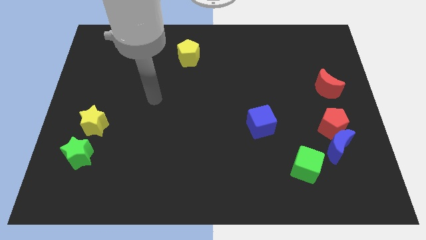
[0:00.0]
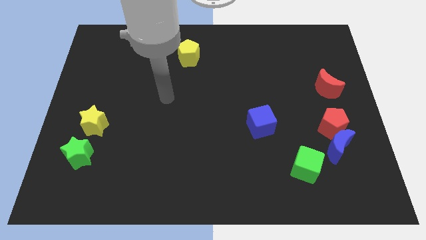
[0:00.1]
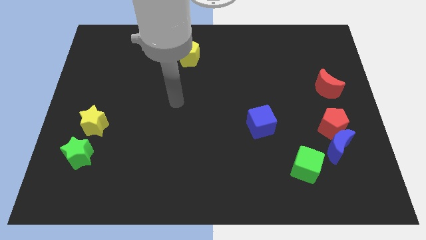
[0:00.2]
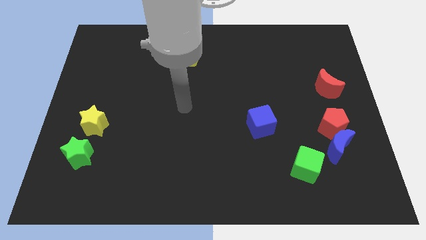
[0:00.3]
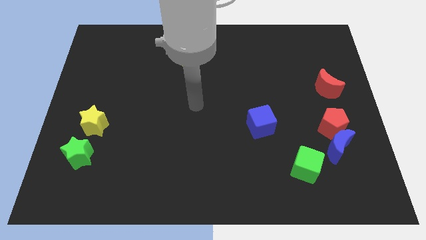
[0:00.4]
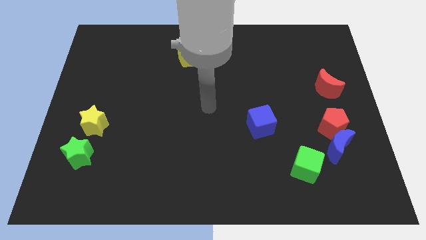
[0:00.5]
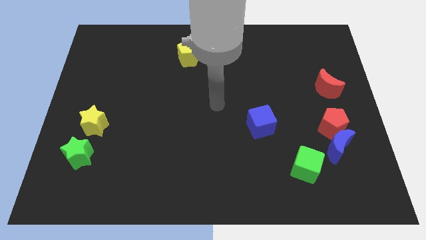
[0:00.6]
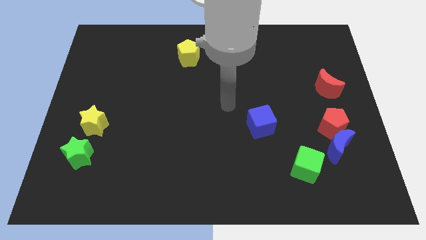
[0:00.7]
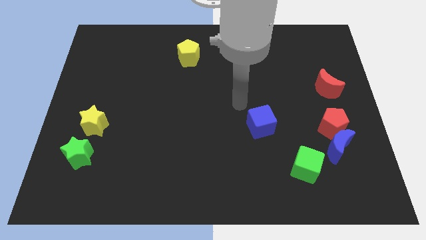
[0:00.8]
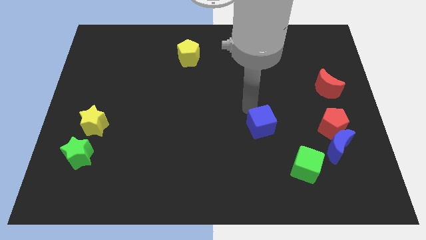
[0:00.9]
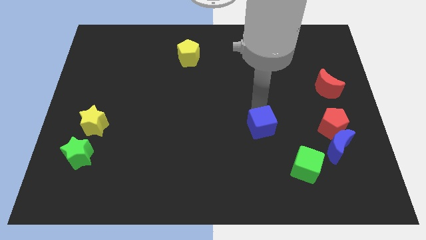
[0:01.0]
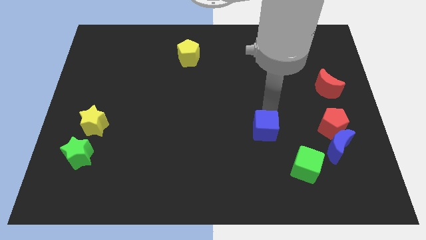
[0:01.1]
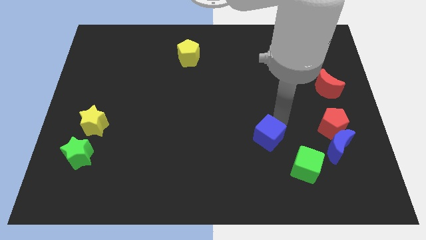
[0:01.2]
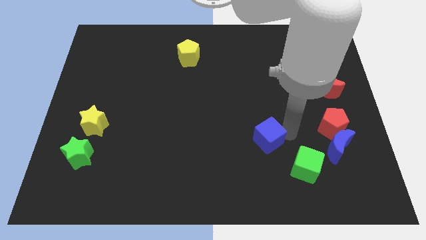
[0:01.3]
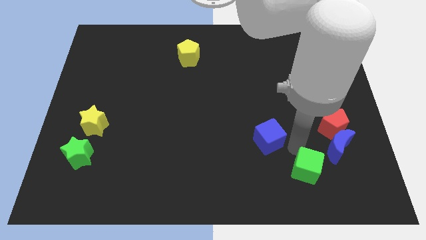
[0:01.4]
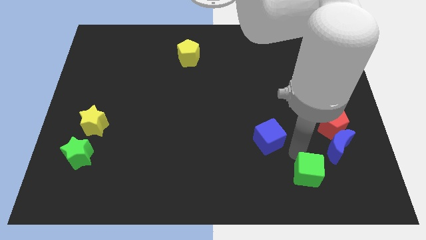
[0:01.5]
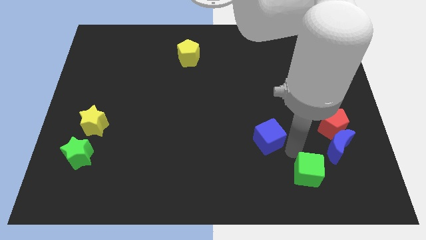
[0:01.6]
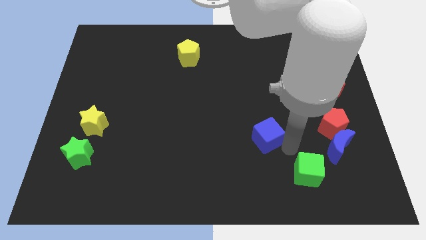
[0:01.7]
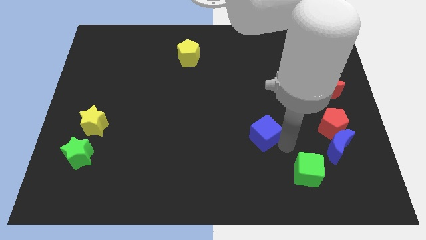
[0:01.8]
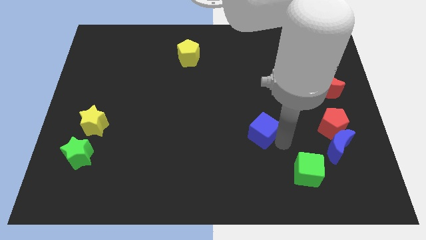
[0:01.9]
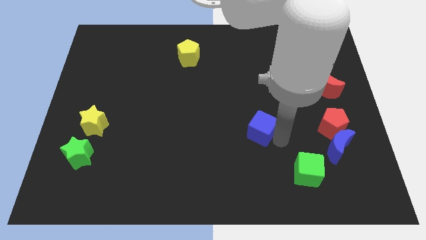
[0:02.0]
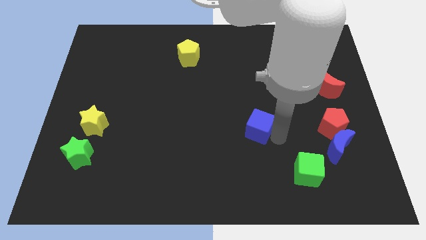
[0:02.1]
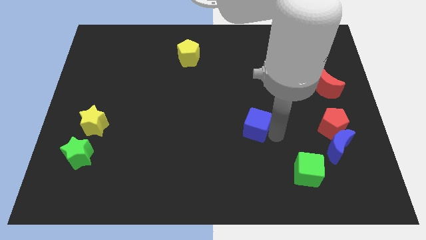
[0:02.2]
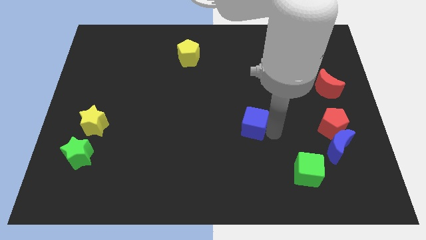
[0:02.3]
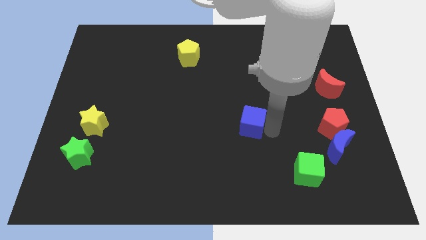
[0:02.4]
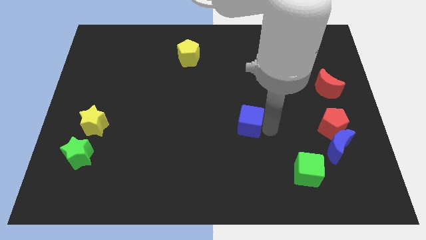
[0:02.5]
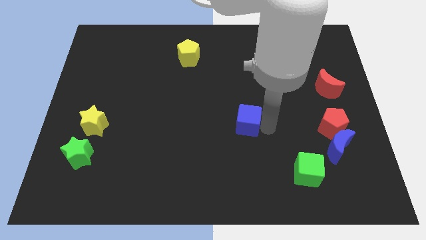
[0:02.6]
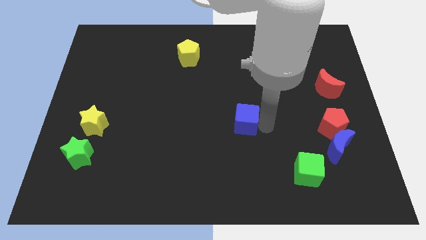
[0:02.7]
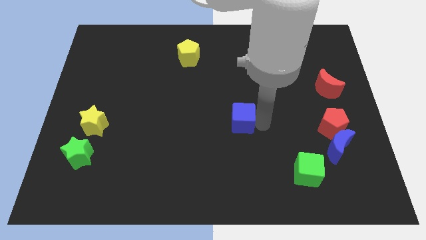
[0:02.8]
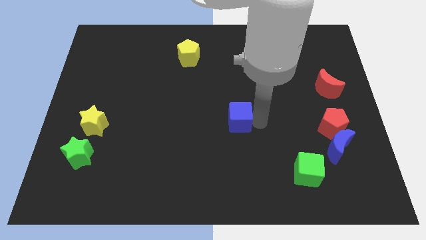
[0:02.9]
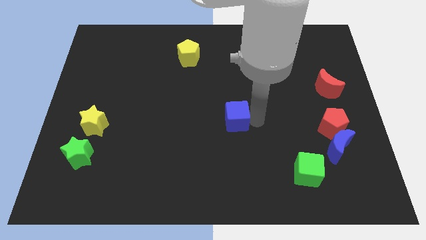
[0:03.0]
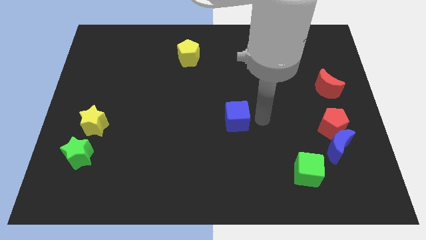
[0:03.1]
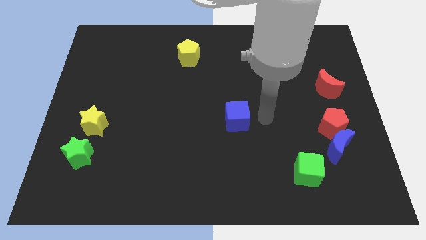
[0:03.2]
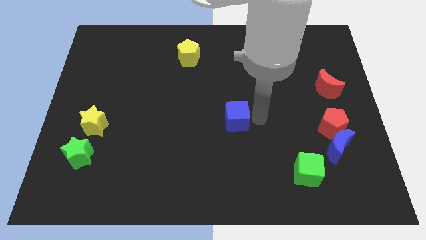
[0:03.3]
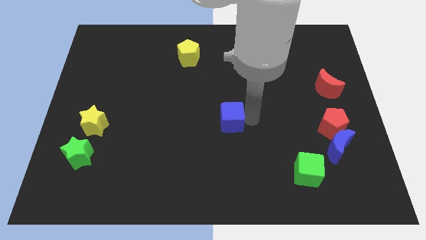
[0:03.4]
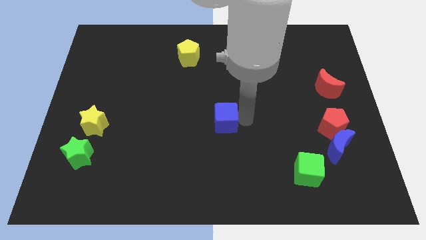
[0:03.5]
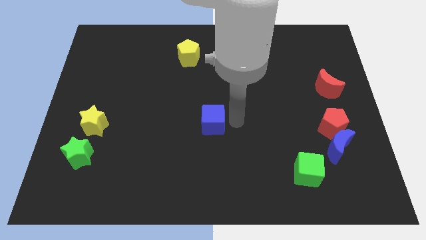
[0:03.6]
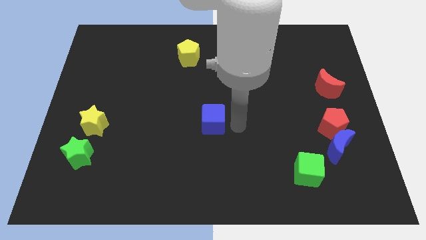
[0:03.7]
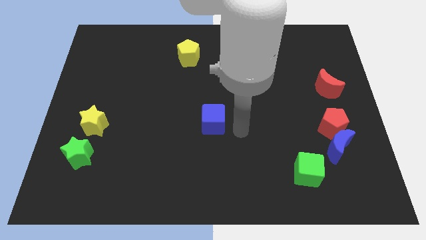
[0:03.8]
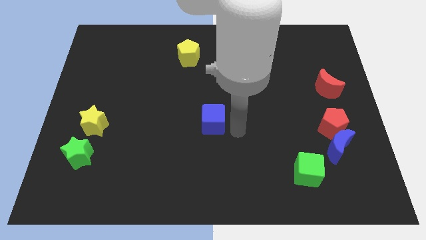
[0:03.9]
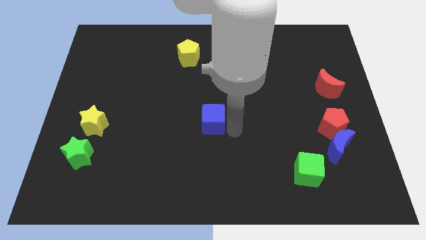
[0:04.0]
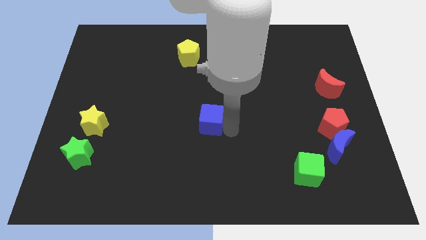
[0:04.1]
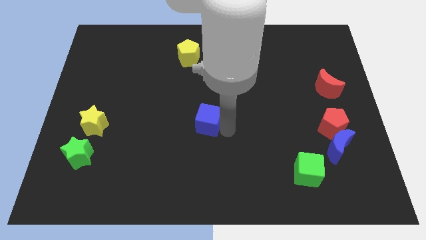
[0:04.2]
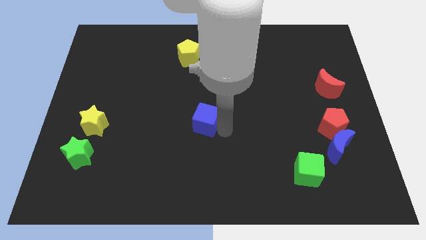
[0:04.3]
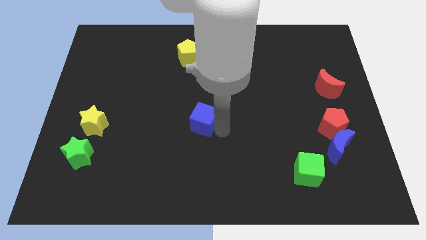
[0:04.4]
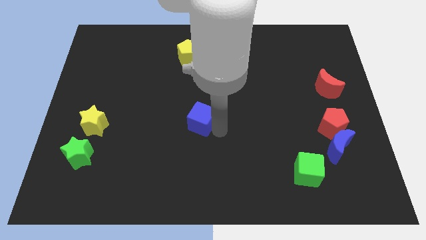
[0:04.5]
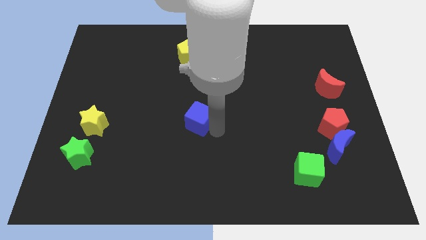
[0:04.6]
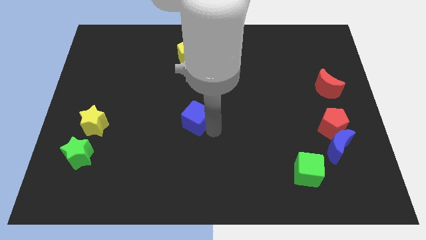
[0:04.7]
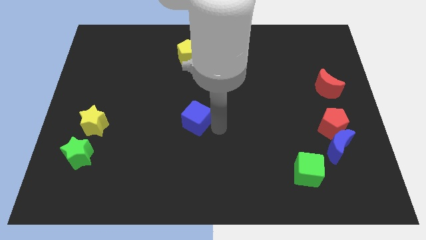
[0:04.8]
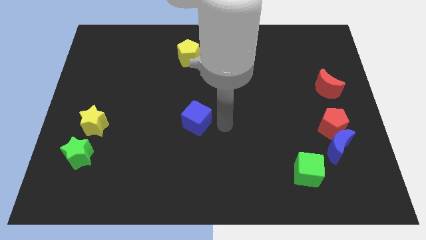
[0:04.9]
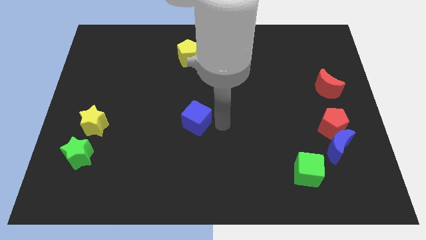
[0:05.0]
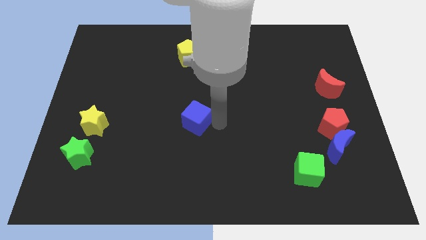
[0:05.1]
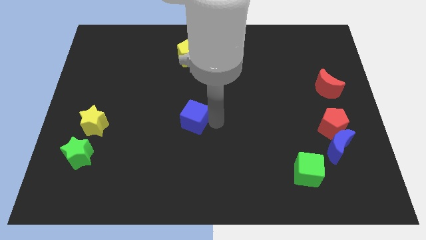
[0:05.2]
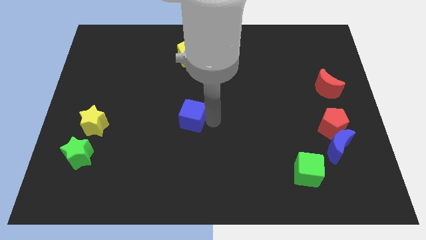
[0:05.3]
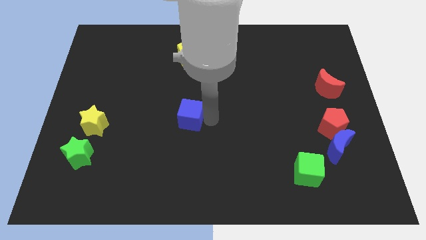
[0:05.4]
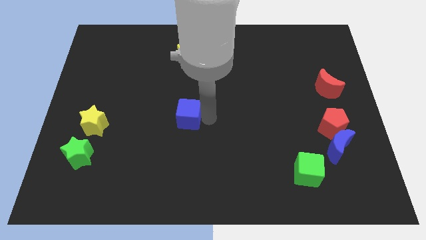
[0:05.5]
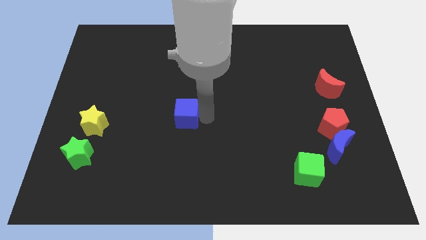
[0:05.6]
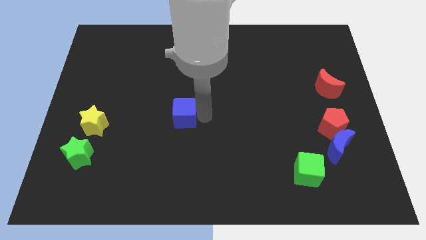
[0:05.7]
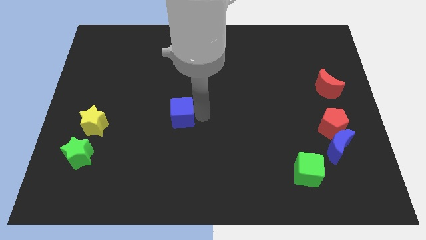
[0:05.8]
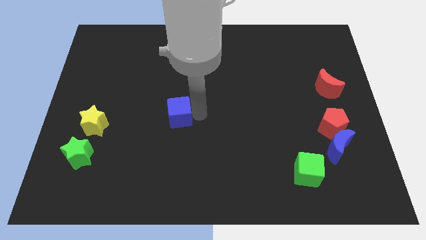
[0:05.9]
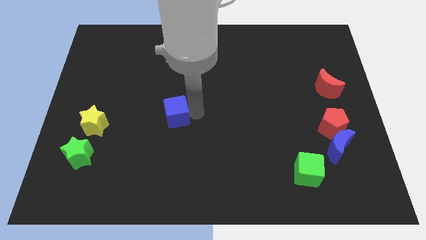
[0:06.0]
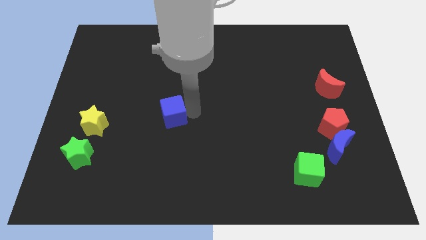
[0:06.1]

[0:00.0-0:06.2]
push the blue cube to the left

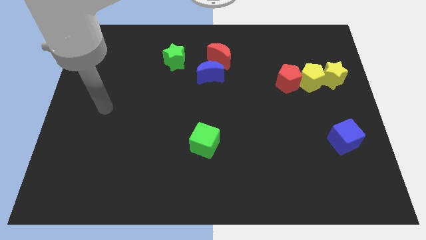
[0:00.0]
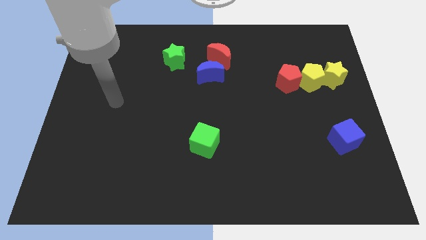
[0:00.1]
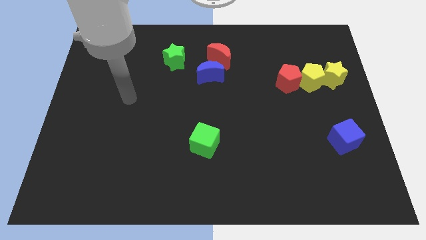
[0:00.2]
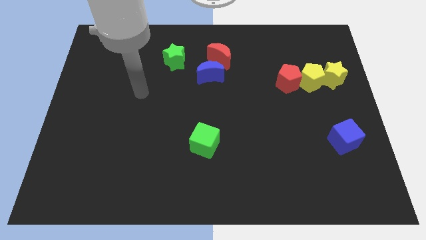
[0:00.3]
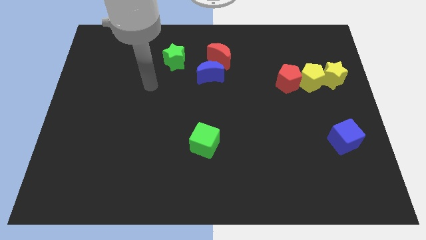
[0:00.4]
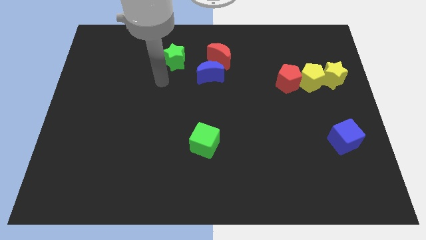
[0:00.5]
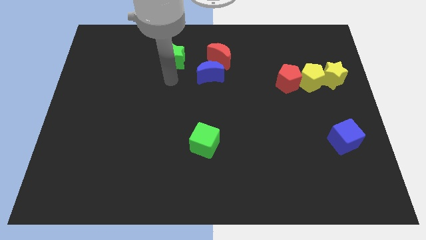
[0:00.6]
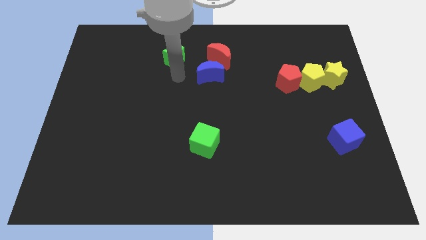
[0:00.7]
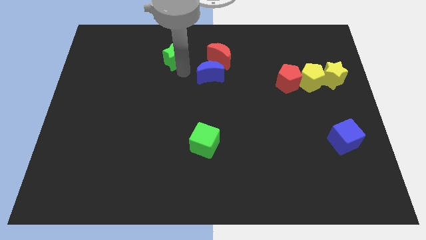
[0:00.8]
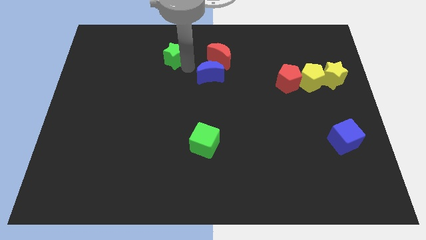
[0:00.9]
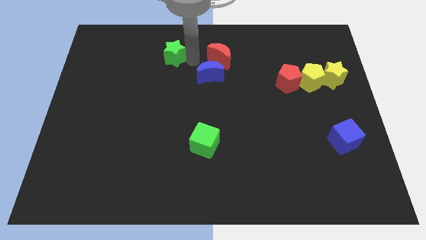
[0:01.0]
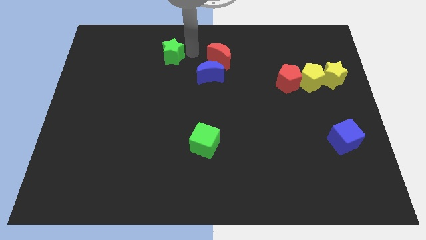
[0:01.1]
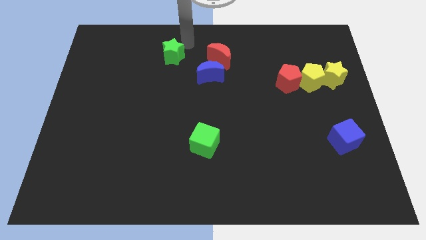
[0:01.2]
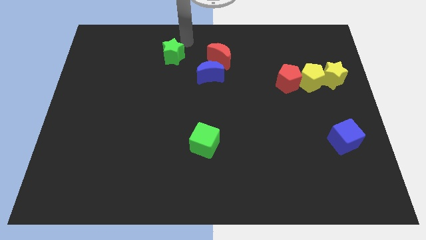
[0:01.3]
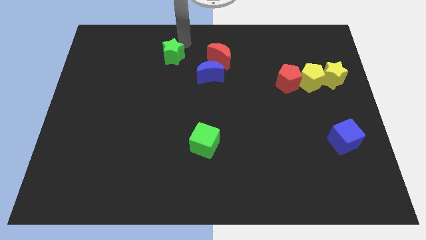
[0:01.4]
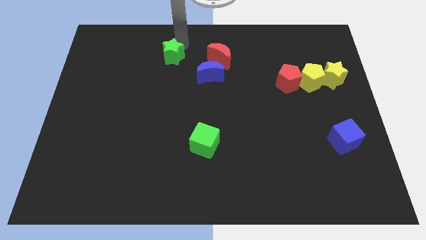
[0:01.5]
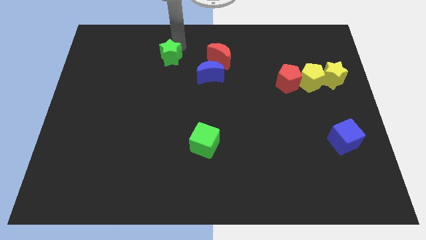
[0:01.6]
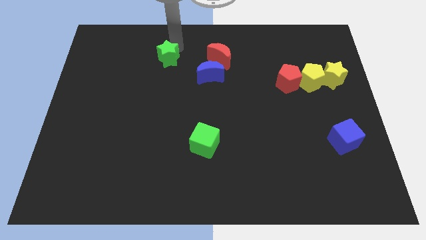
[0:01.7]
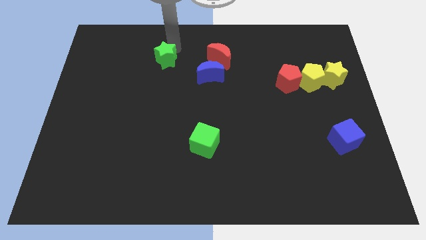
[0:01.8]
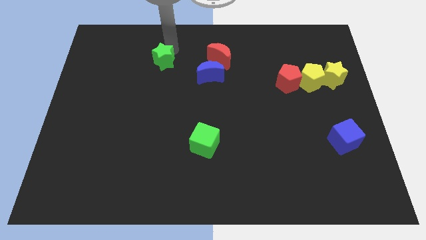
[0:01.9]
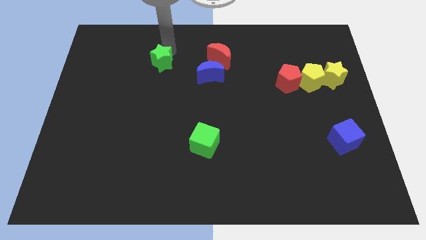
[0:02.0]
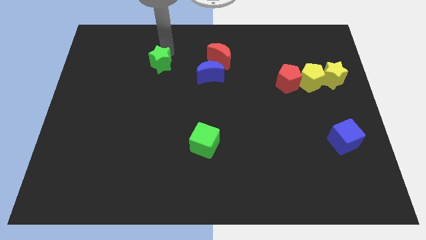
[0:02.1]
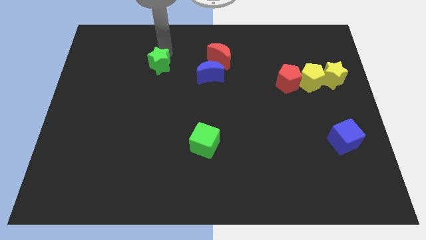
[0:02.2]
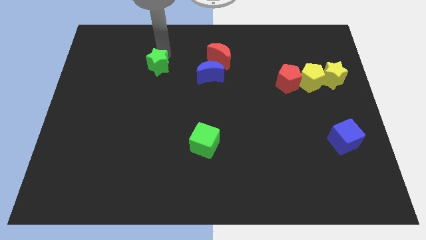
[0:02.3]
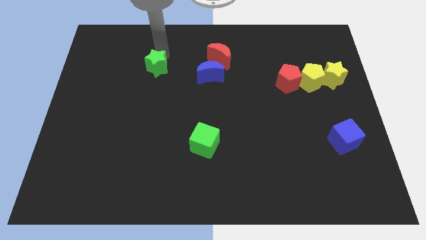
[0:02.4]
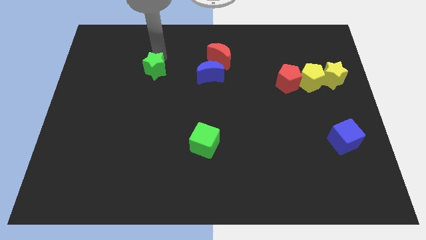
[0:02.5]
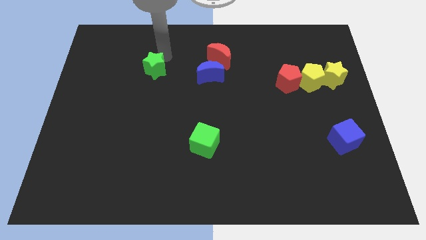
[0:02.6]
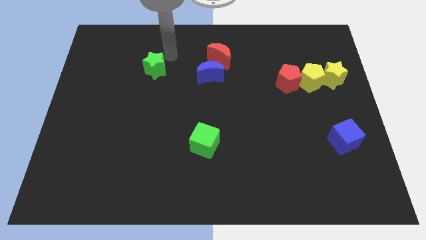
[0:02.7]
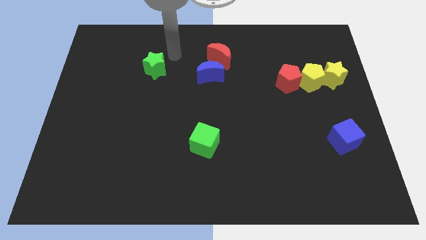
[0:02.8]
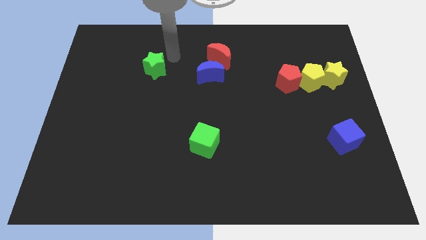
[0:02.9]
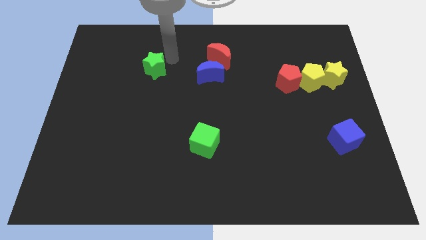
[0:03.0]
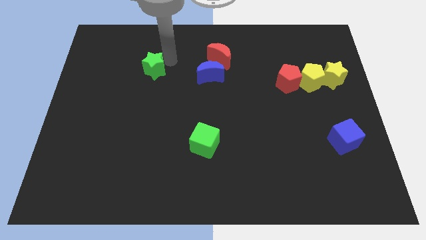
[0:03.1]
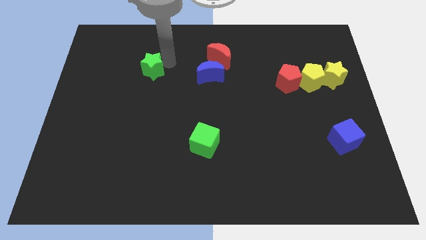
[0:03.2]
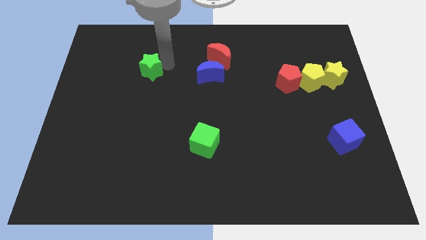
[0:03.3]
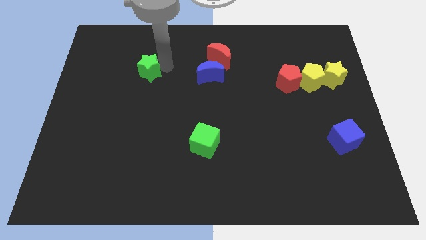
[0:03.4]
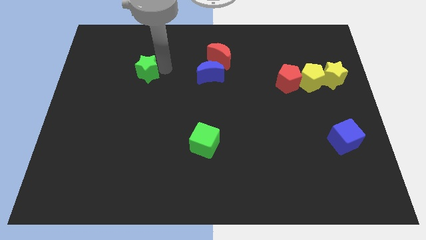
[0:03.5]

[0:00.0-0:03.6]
move the green star a bit down and then to the left
